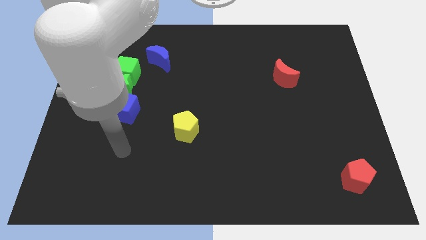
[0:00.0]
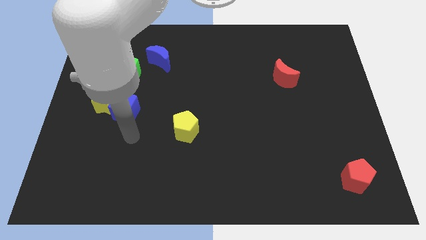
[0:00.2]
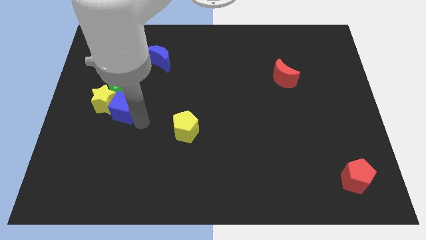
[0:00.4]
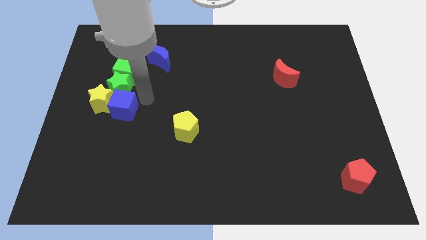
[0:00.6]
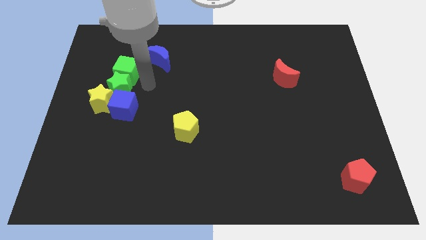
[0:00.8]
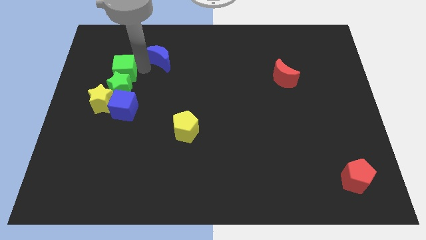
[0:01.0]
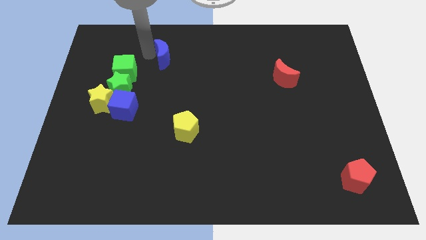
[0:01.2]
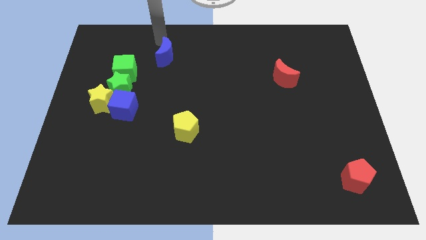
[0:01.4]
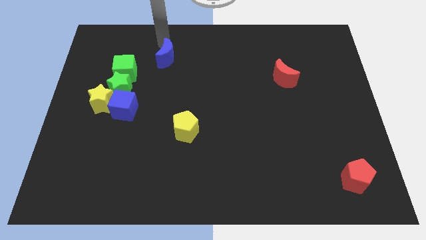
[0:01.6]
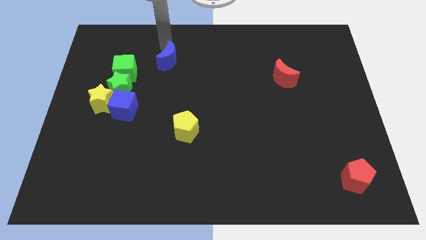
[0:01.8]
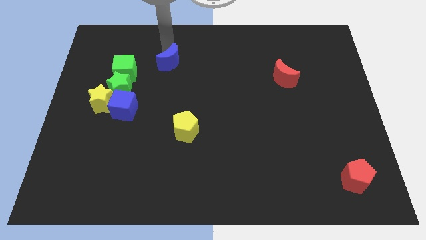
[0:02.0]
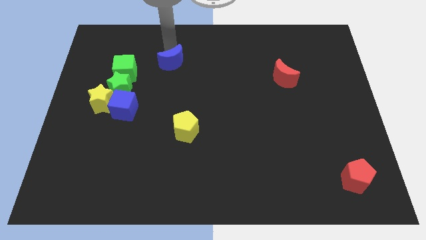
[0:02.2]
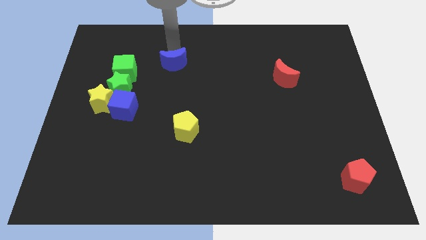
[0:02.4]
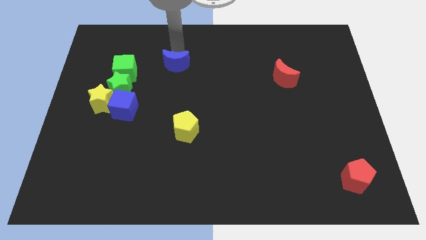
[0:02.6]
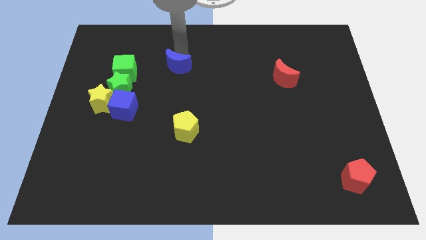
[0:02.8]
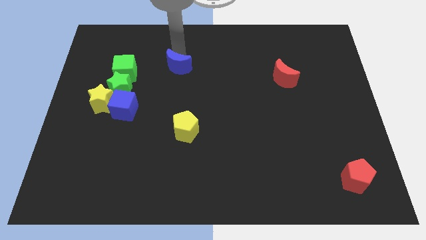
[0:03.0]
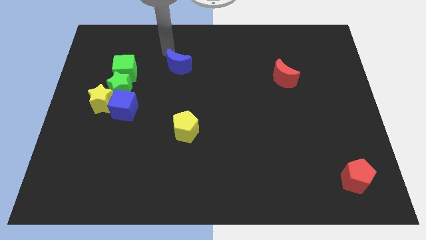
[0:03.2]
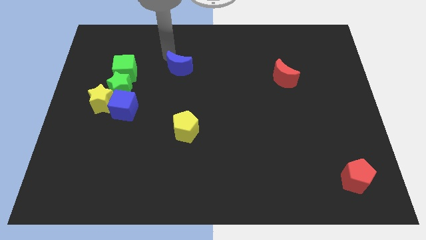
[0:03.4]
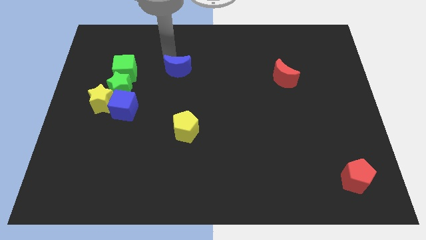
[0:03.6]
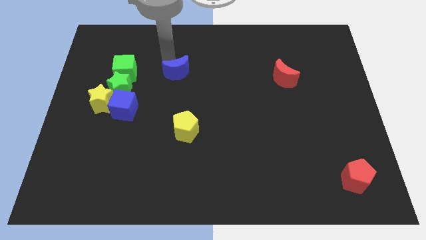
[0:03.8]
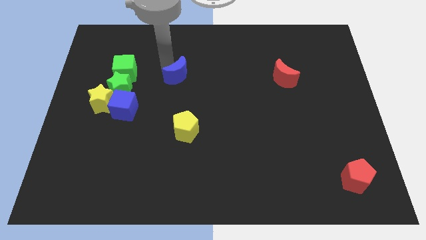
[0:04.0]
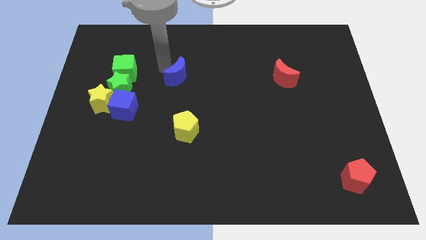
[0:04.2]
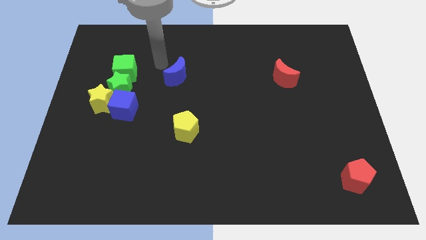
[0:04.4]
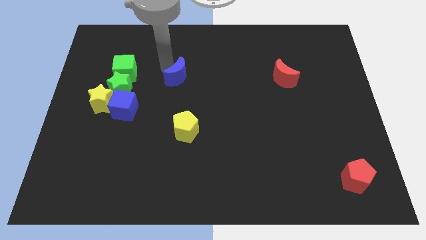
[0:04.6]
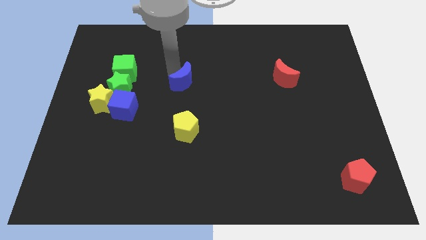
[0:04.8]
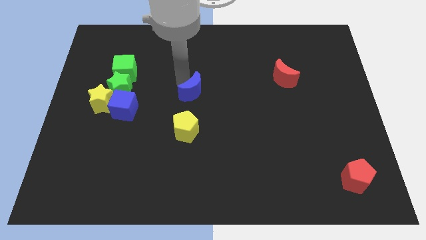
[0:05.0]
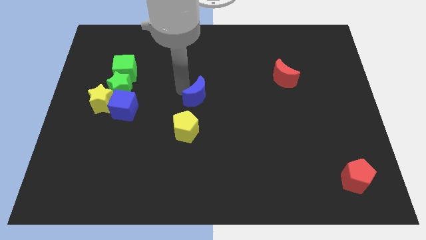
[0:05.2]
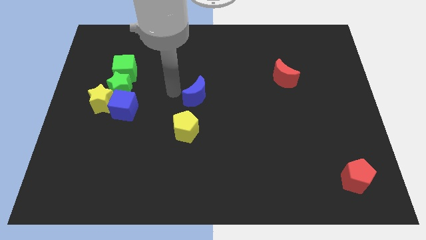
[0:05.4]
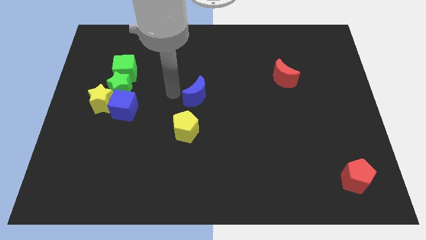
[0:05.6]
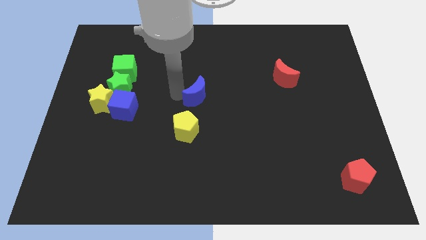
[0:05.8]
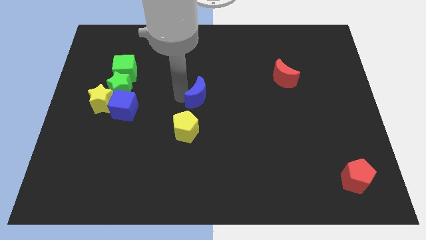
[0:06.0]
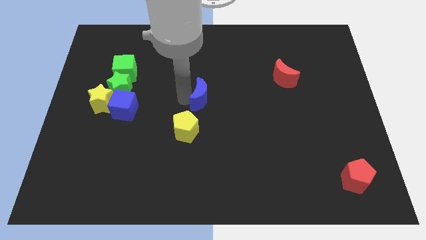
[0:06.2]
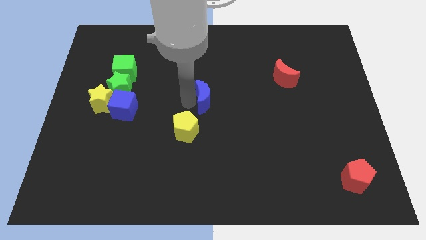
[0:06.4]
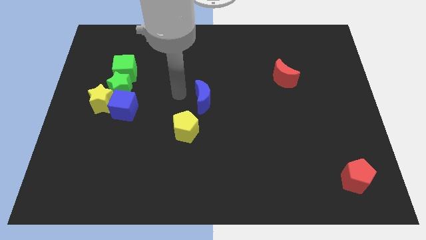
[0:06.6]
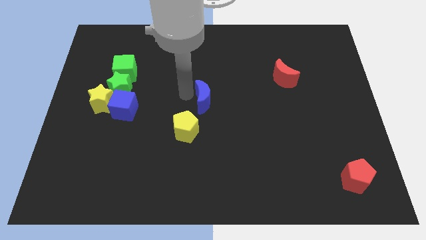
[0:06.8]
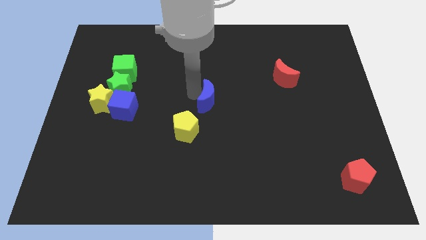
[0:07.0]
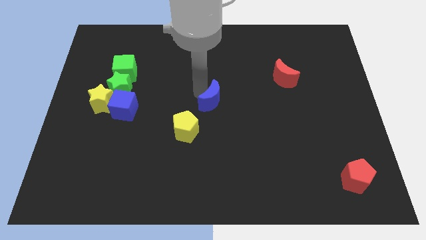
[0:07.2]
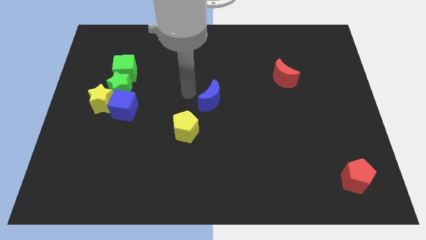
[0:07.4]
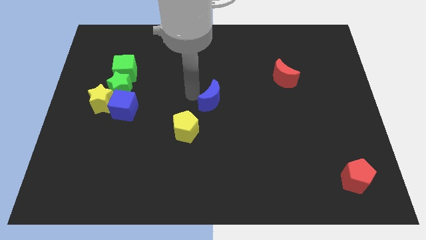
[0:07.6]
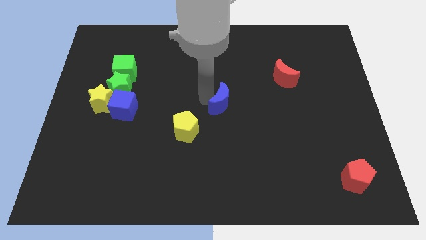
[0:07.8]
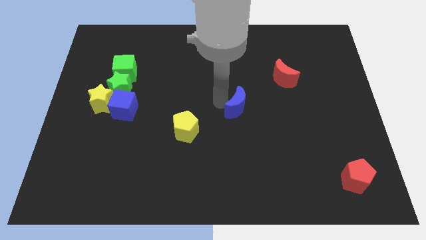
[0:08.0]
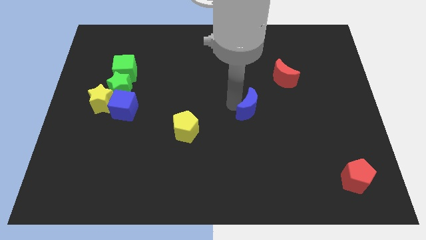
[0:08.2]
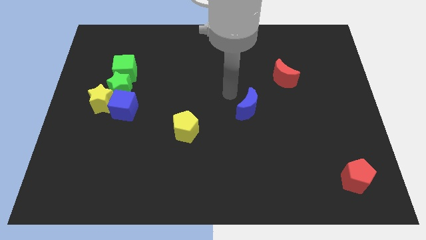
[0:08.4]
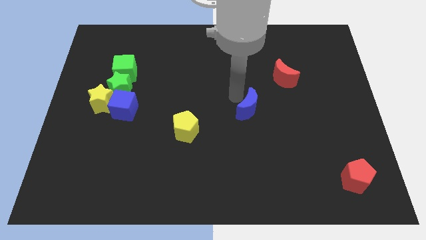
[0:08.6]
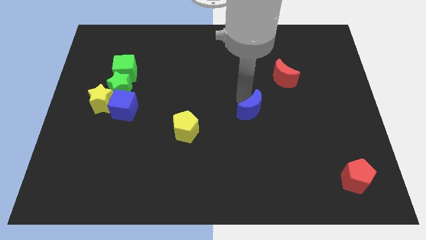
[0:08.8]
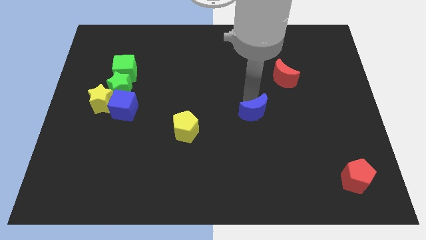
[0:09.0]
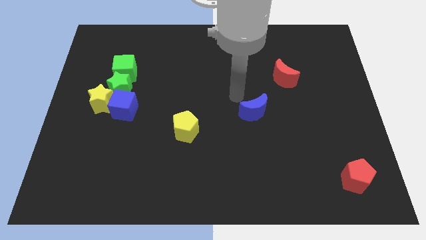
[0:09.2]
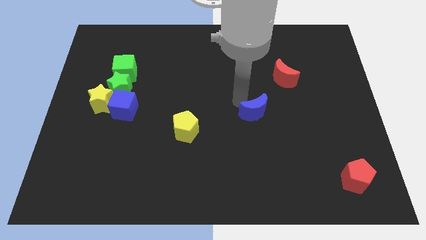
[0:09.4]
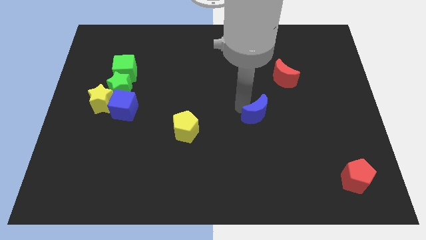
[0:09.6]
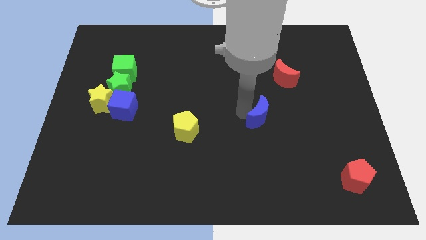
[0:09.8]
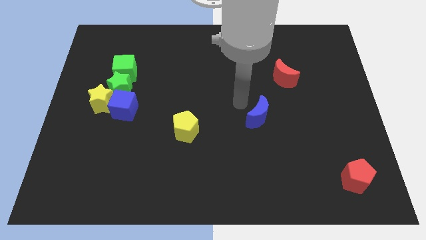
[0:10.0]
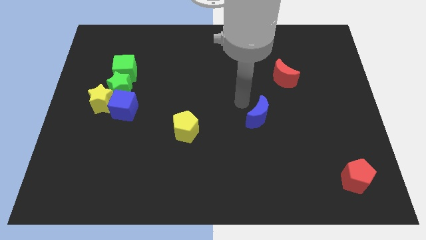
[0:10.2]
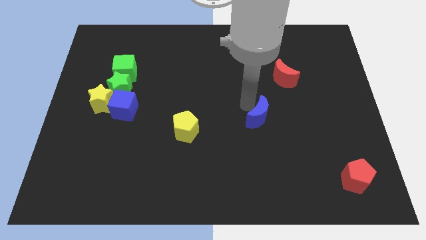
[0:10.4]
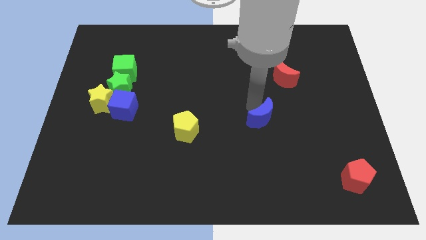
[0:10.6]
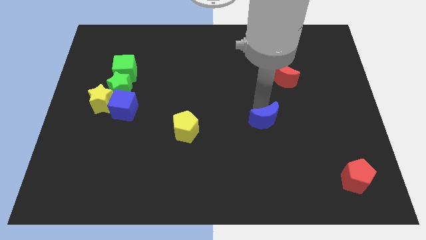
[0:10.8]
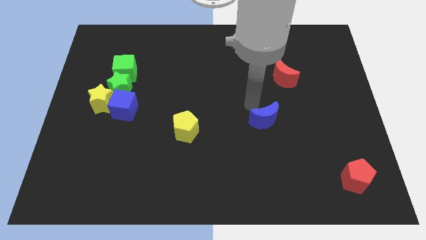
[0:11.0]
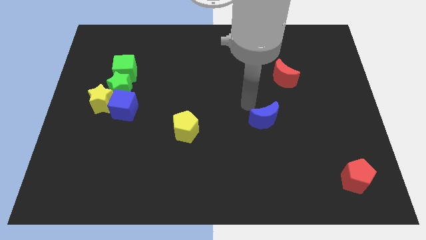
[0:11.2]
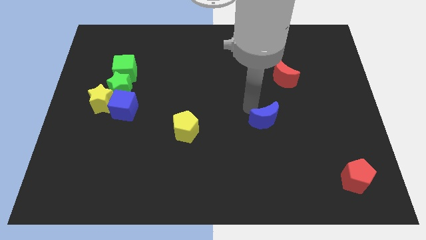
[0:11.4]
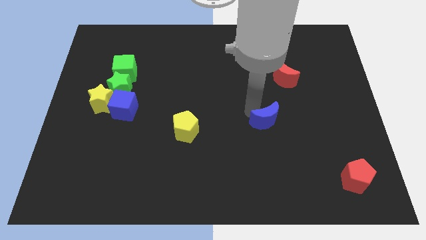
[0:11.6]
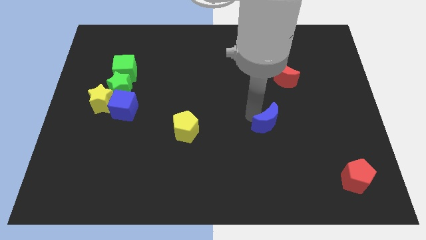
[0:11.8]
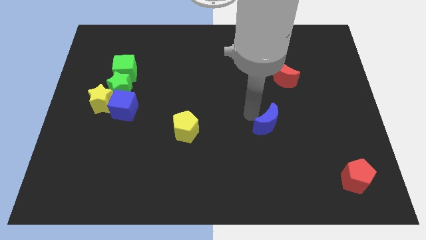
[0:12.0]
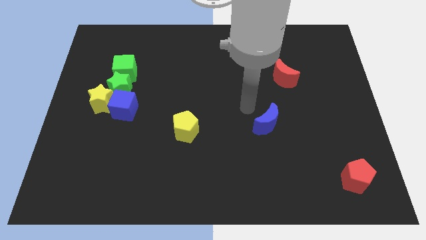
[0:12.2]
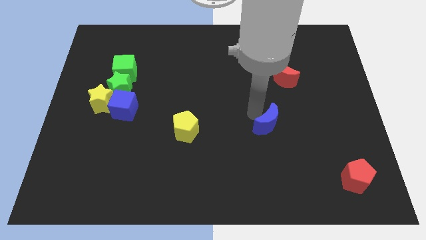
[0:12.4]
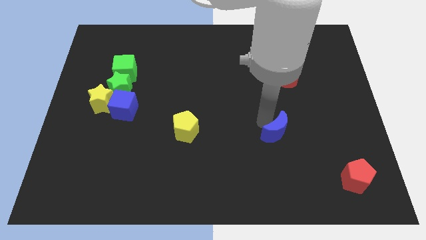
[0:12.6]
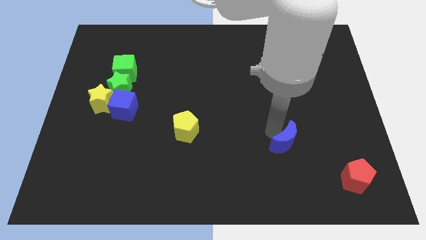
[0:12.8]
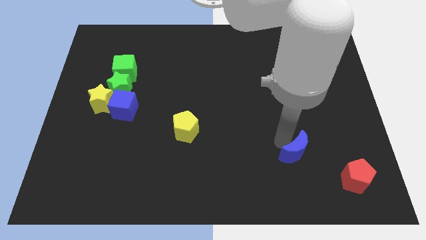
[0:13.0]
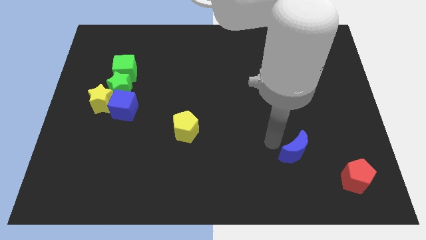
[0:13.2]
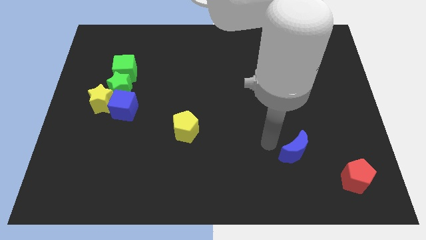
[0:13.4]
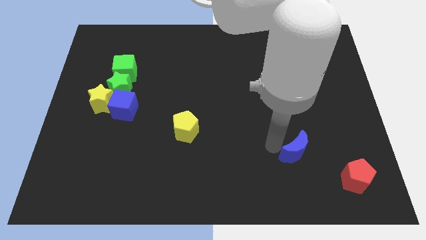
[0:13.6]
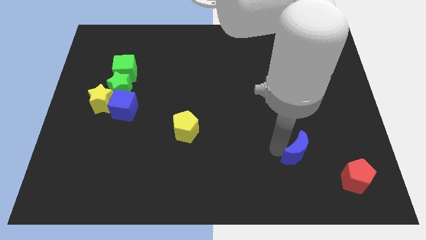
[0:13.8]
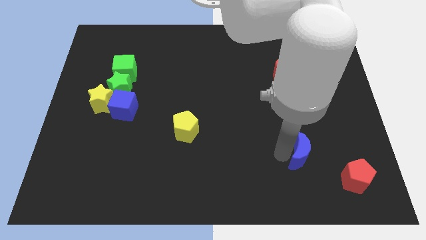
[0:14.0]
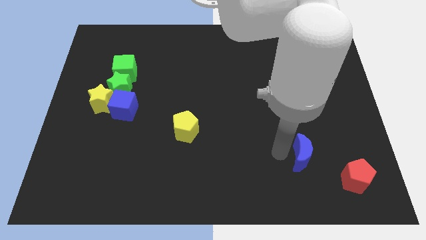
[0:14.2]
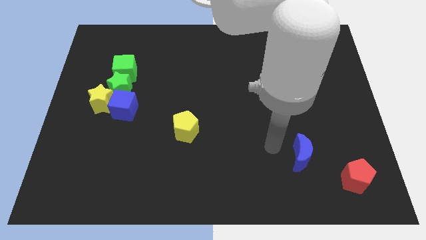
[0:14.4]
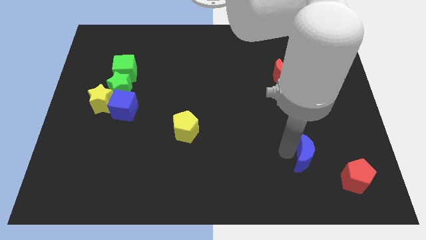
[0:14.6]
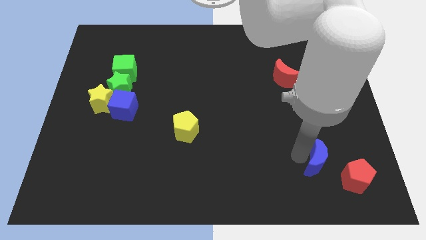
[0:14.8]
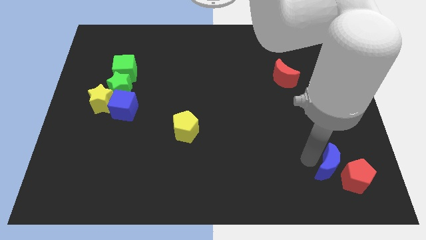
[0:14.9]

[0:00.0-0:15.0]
move the blue moon next to the red pentagon
